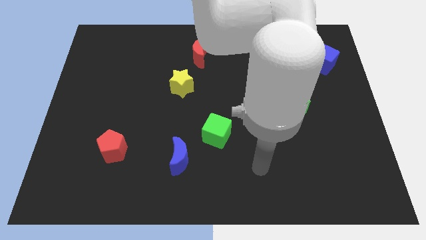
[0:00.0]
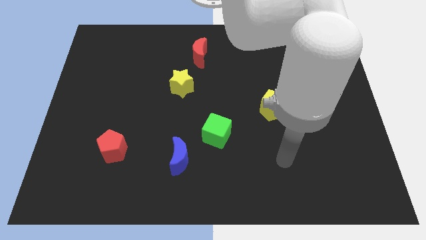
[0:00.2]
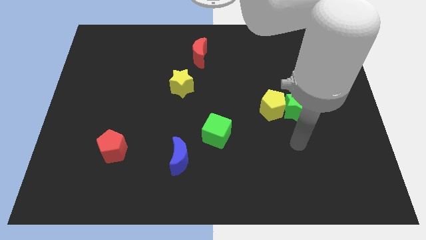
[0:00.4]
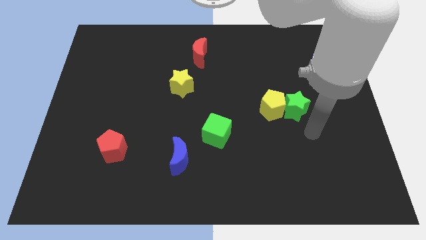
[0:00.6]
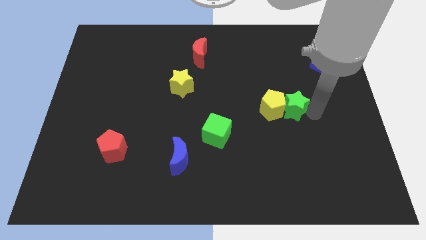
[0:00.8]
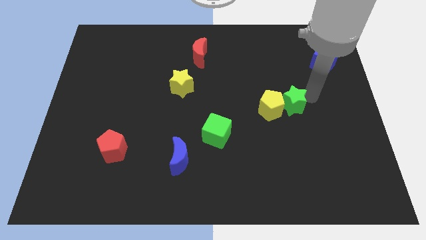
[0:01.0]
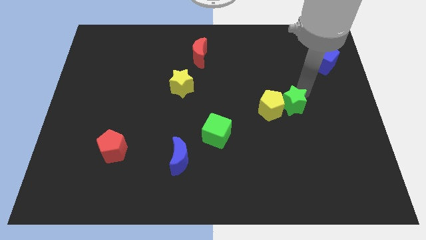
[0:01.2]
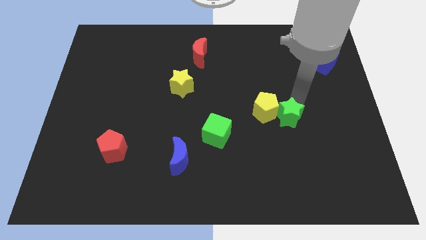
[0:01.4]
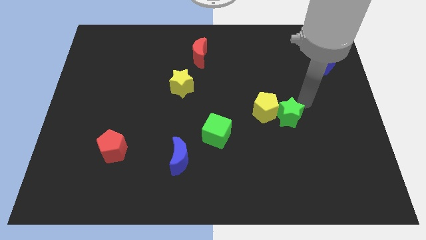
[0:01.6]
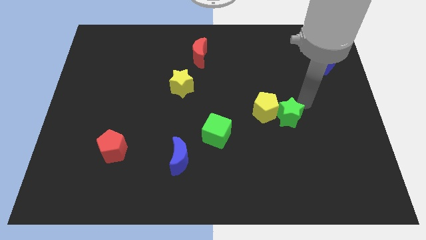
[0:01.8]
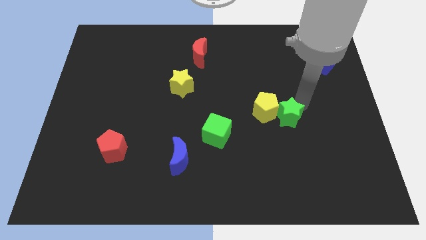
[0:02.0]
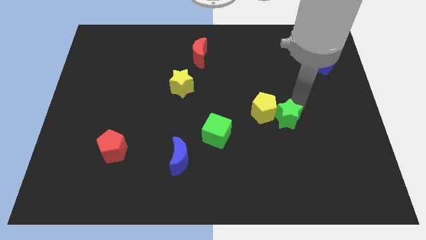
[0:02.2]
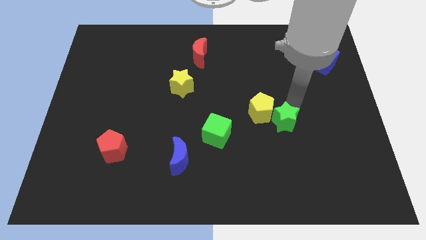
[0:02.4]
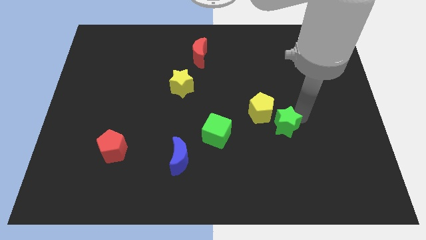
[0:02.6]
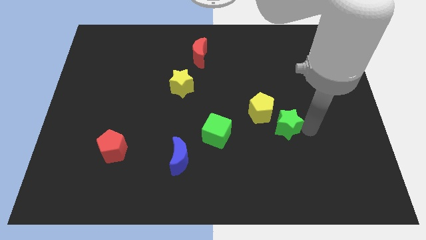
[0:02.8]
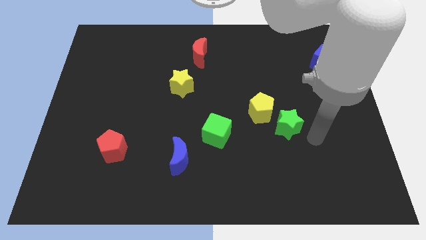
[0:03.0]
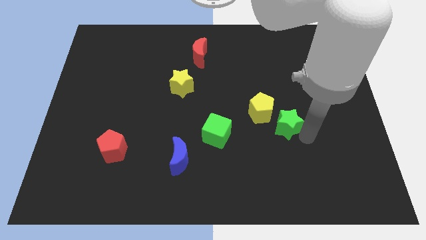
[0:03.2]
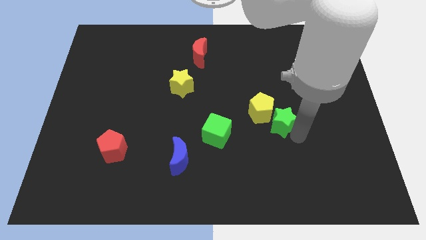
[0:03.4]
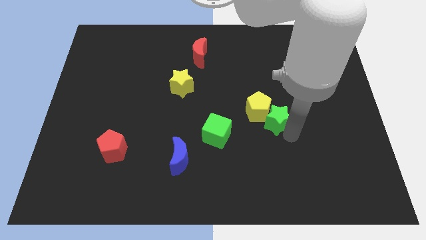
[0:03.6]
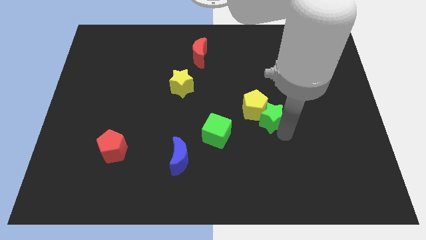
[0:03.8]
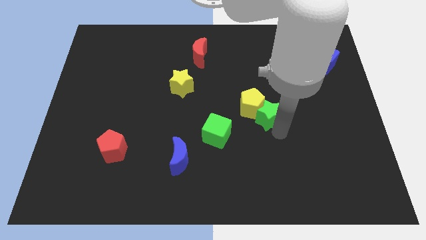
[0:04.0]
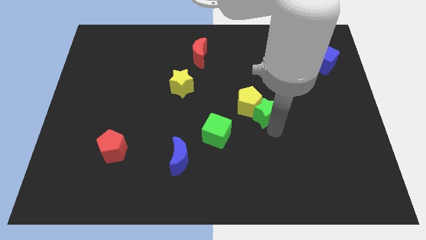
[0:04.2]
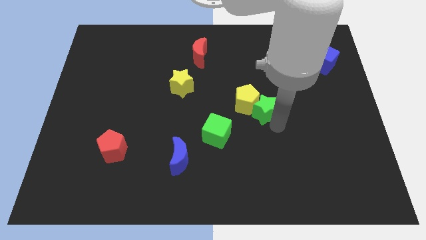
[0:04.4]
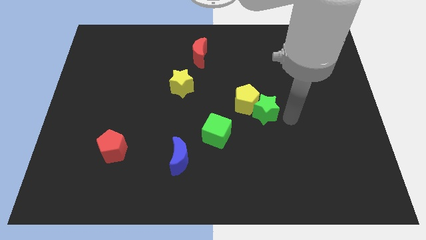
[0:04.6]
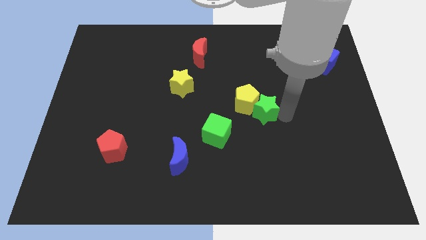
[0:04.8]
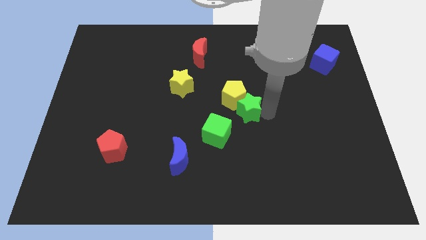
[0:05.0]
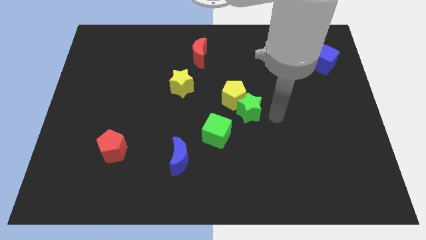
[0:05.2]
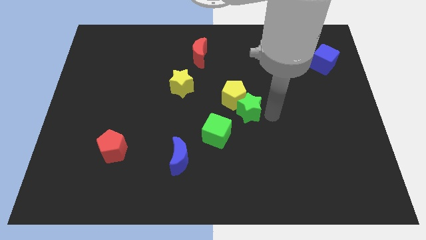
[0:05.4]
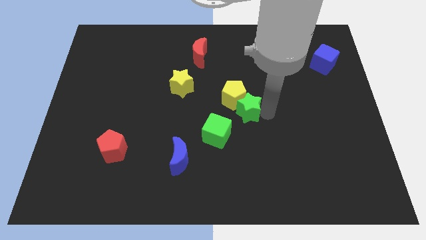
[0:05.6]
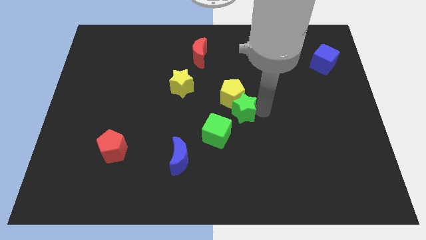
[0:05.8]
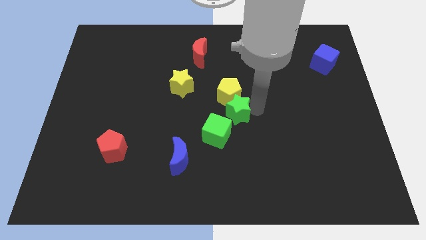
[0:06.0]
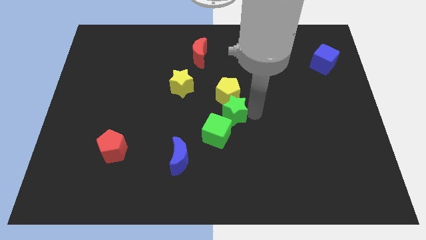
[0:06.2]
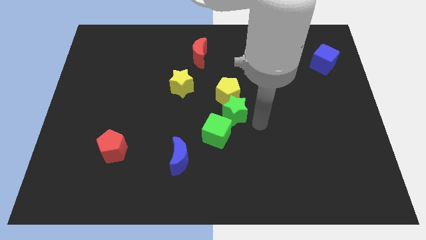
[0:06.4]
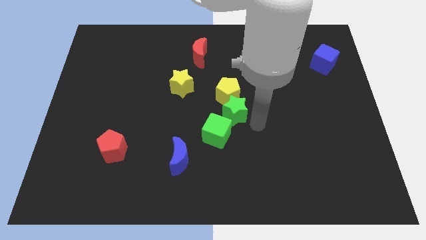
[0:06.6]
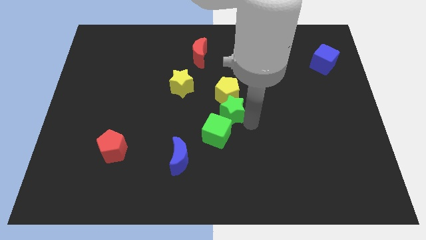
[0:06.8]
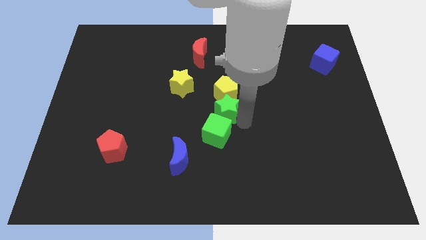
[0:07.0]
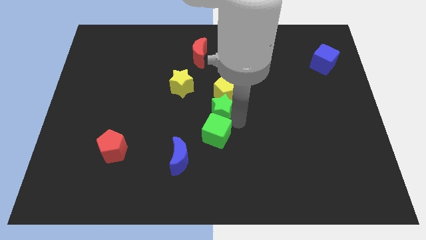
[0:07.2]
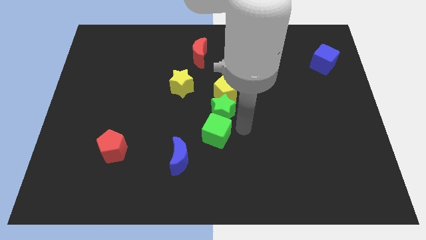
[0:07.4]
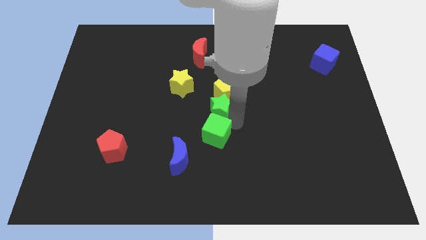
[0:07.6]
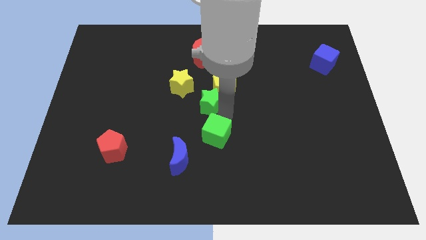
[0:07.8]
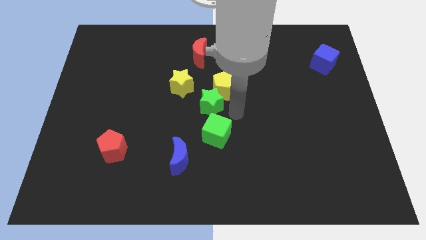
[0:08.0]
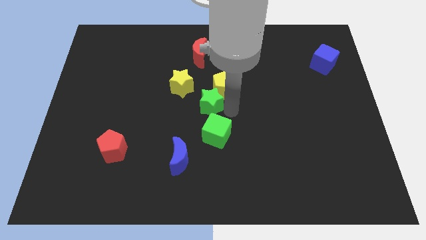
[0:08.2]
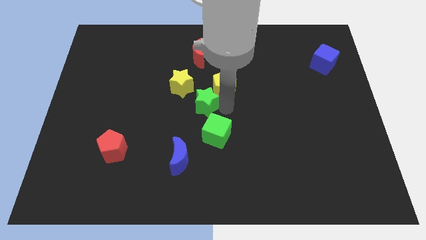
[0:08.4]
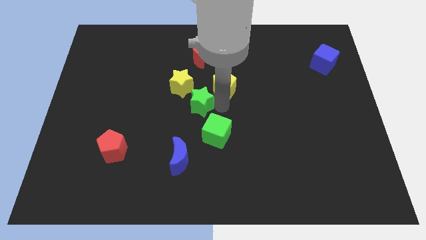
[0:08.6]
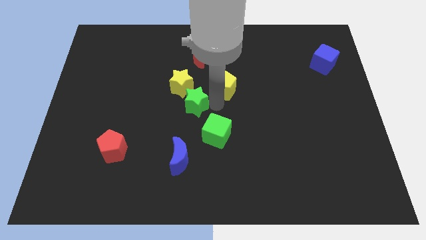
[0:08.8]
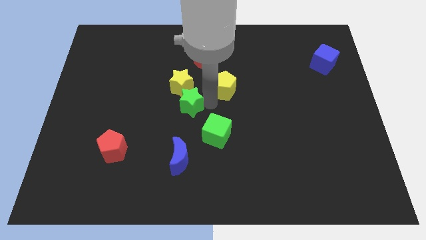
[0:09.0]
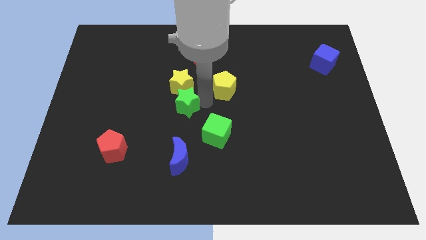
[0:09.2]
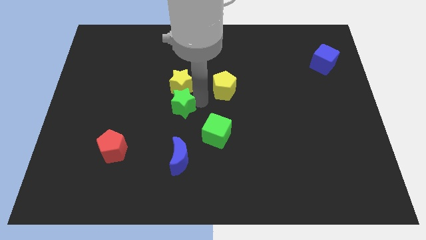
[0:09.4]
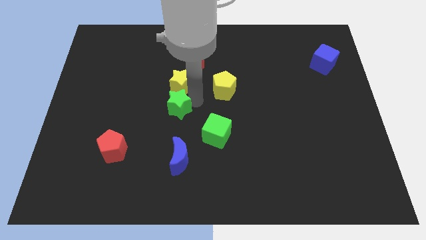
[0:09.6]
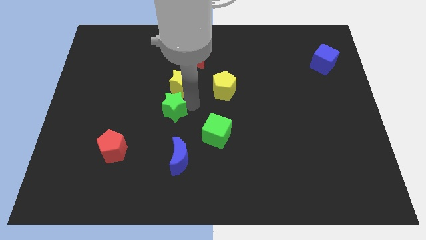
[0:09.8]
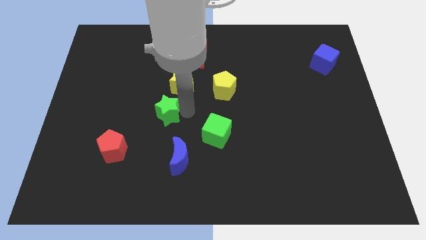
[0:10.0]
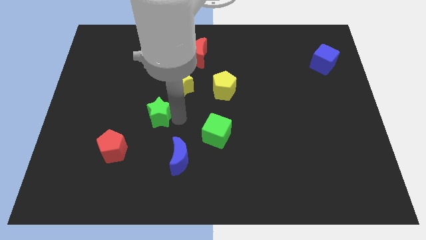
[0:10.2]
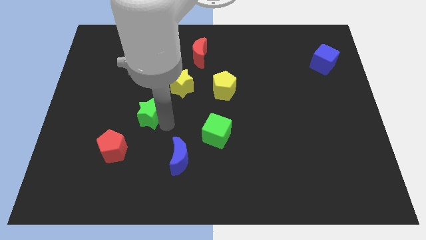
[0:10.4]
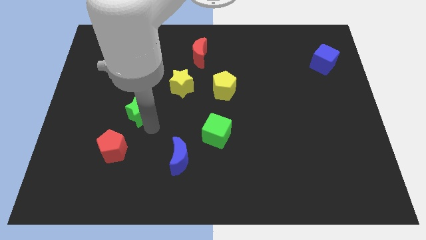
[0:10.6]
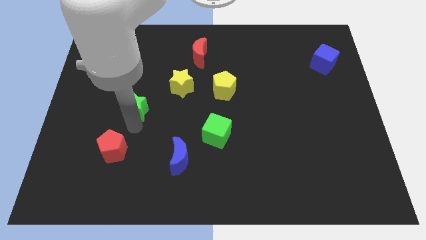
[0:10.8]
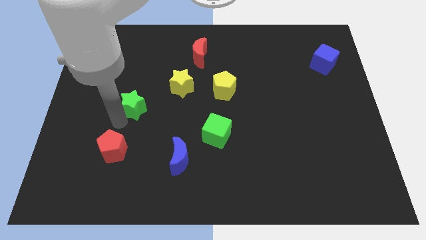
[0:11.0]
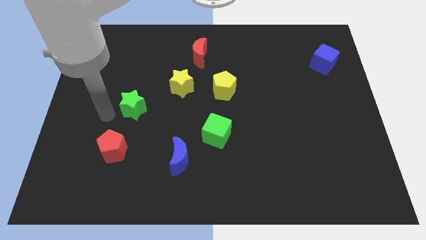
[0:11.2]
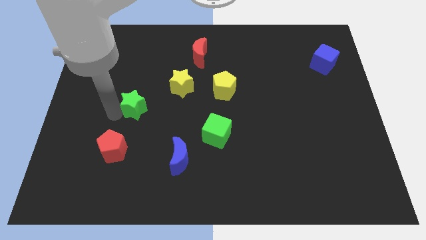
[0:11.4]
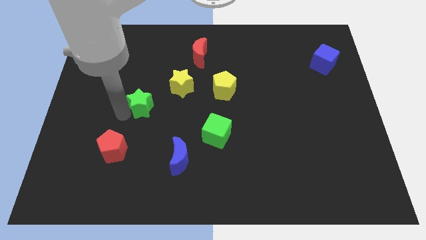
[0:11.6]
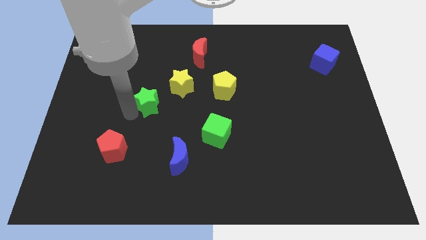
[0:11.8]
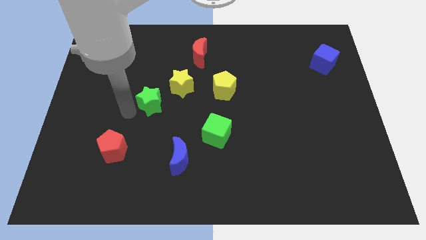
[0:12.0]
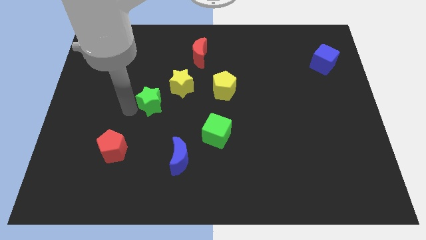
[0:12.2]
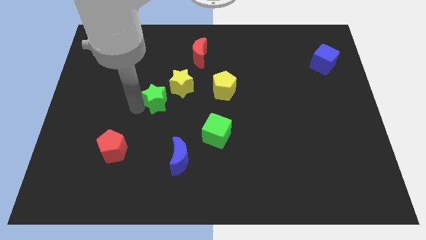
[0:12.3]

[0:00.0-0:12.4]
move the green star to the left of the yellow star

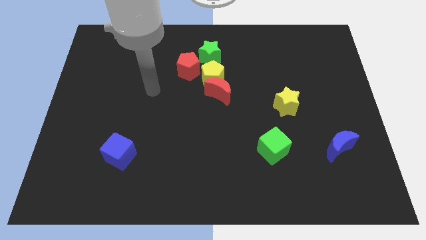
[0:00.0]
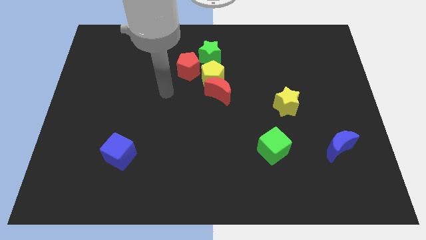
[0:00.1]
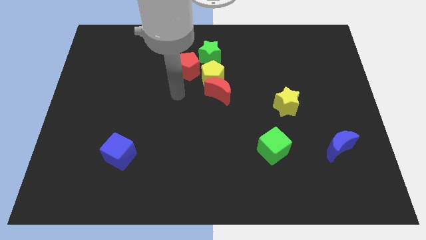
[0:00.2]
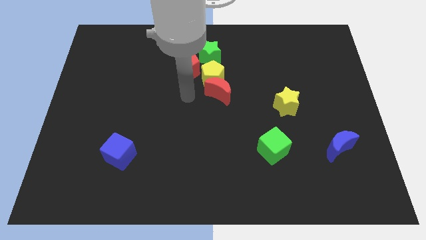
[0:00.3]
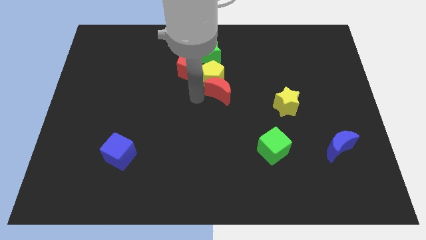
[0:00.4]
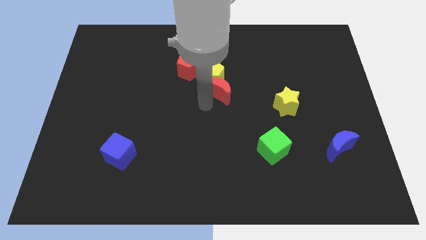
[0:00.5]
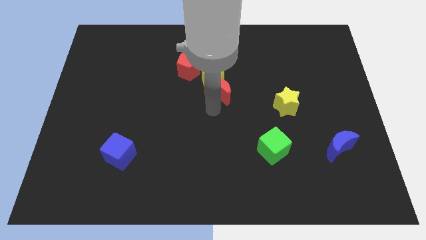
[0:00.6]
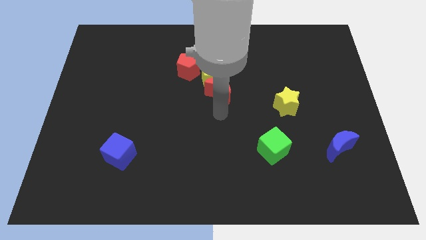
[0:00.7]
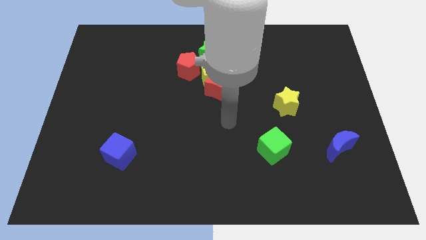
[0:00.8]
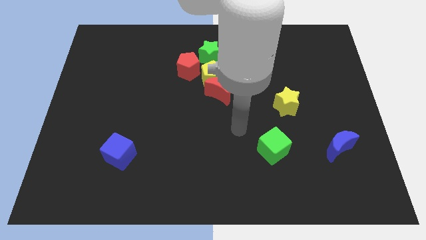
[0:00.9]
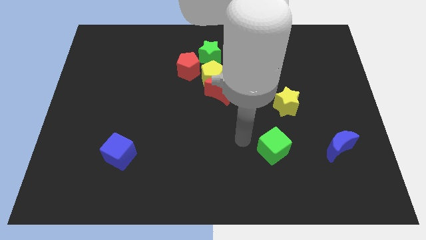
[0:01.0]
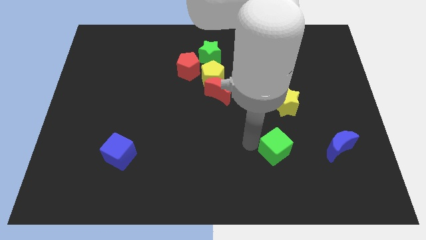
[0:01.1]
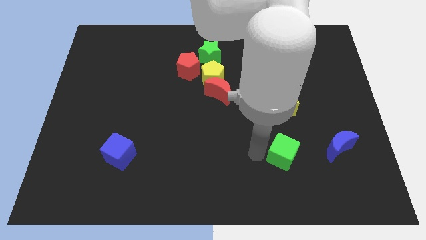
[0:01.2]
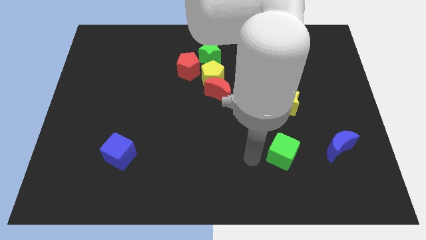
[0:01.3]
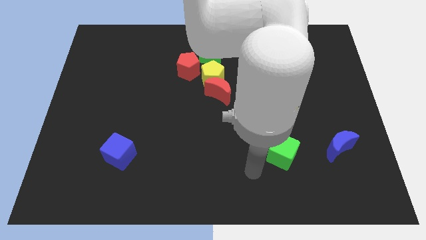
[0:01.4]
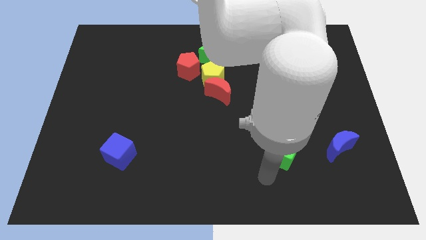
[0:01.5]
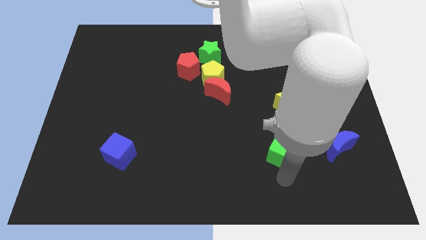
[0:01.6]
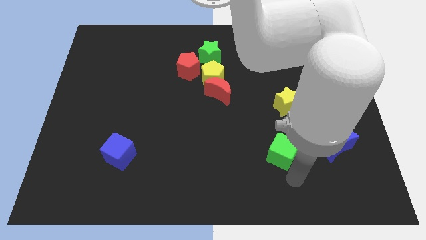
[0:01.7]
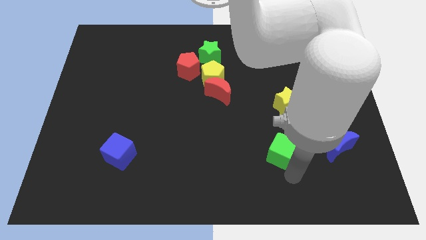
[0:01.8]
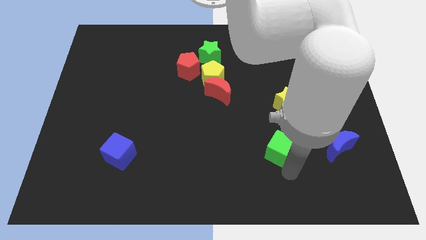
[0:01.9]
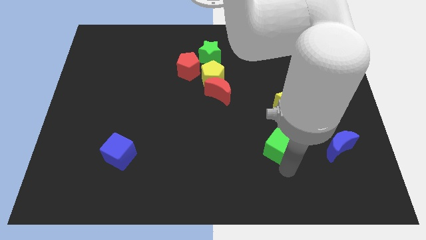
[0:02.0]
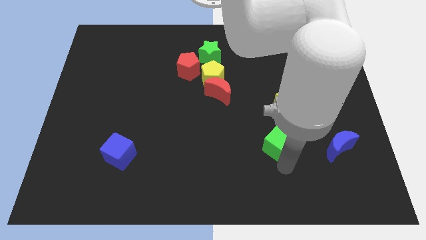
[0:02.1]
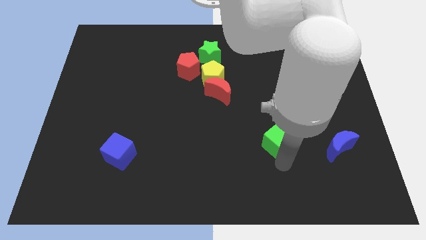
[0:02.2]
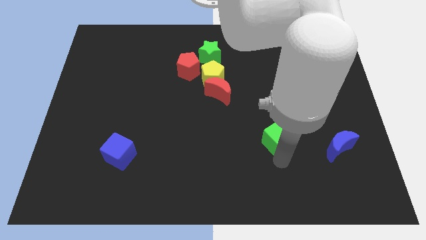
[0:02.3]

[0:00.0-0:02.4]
put the green cube to the bottom left of the yellow star
